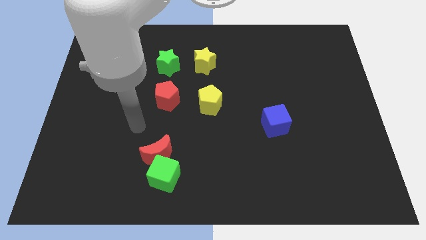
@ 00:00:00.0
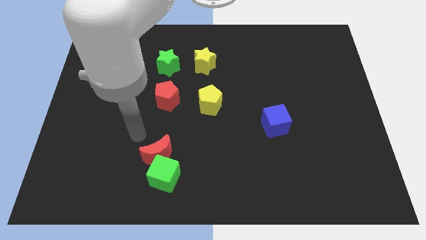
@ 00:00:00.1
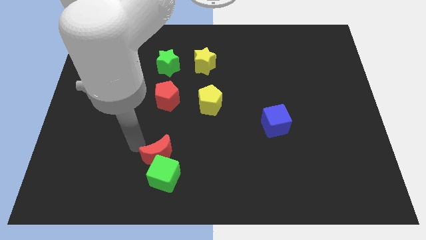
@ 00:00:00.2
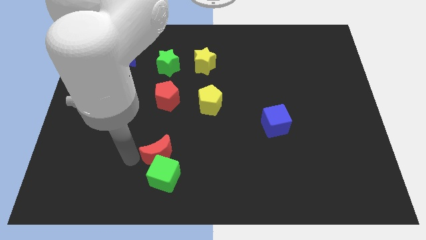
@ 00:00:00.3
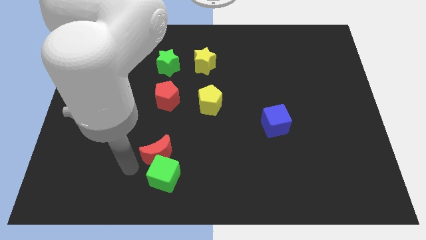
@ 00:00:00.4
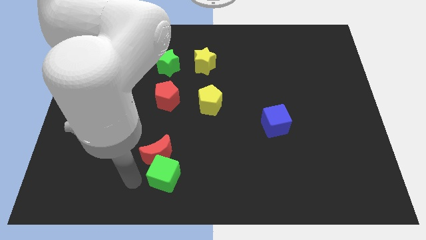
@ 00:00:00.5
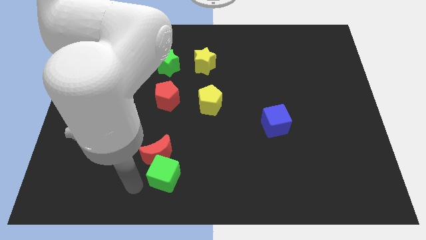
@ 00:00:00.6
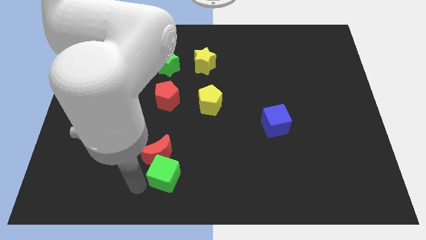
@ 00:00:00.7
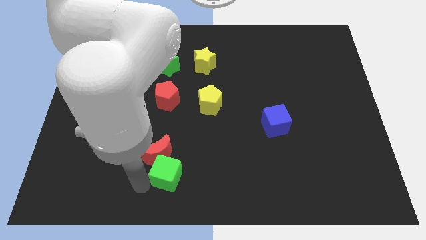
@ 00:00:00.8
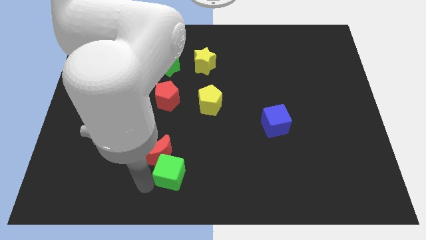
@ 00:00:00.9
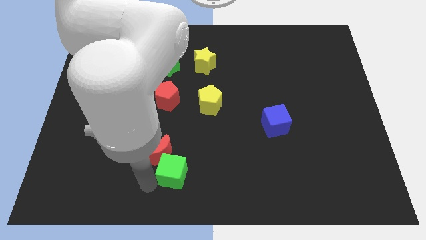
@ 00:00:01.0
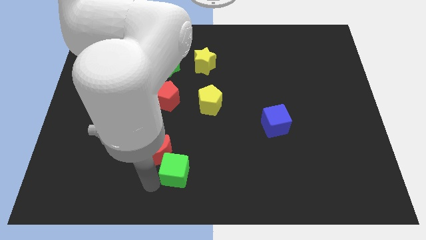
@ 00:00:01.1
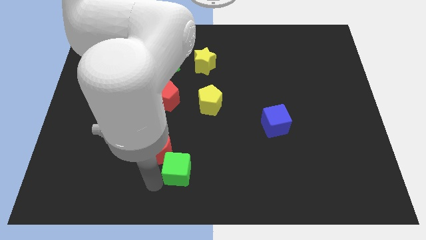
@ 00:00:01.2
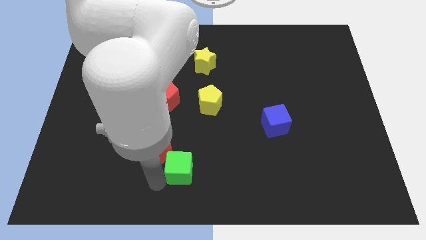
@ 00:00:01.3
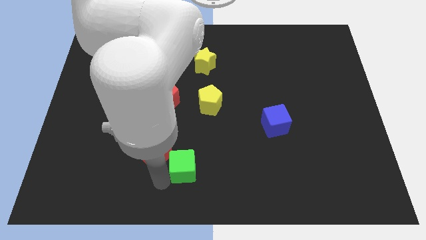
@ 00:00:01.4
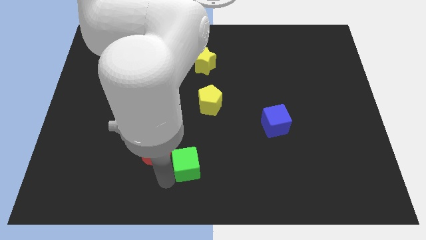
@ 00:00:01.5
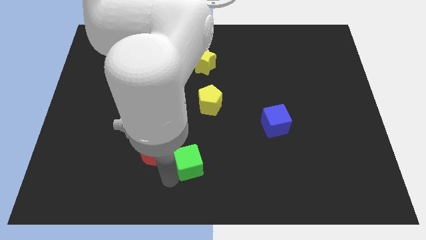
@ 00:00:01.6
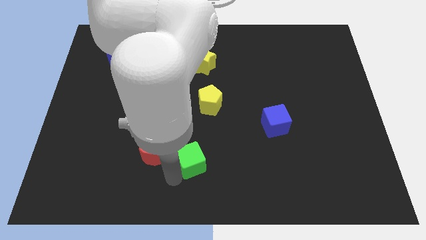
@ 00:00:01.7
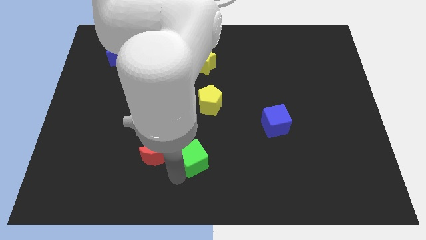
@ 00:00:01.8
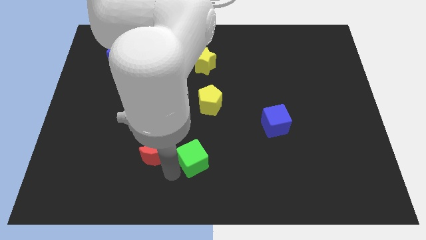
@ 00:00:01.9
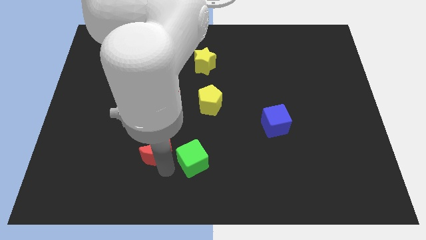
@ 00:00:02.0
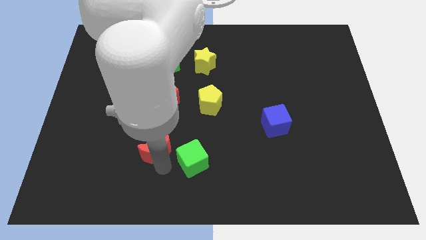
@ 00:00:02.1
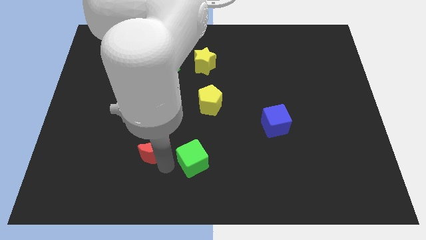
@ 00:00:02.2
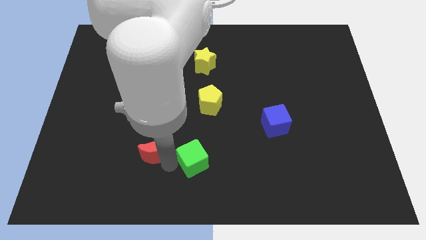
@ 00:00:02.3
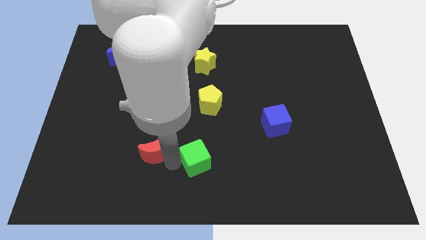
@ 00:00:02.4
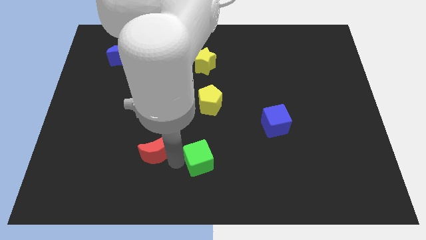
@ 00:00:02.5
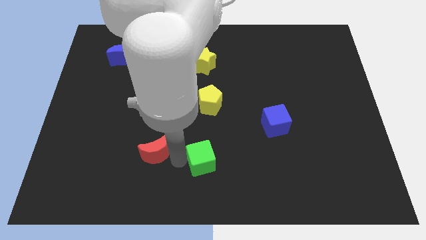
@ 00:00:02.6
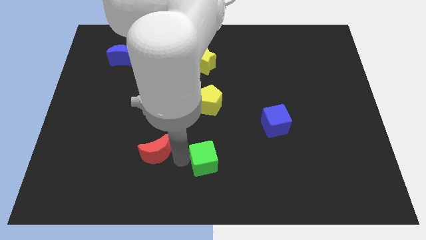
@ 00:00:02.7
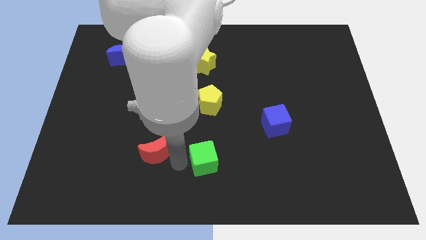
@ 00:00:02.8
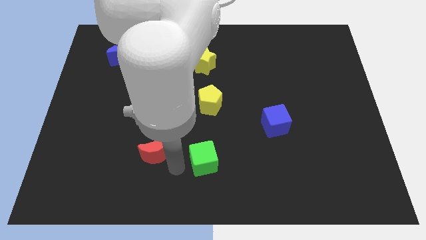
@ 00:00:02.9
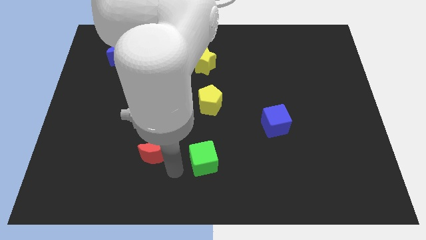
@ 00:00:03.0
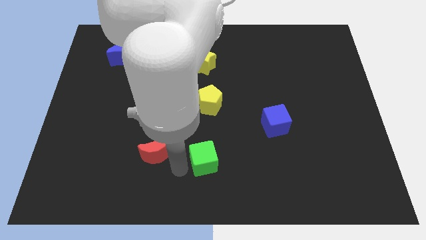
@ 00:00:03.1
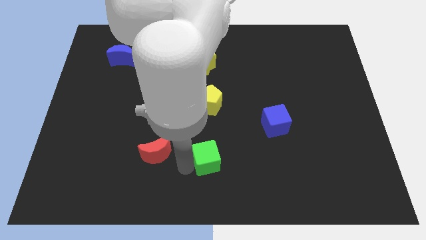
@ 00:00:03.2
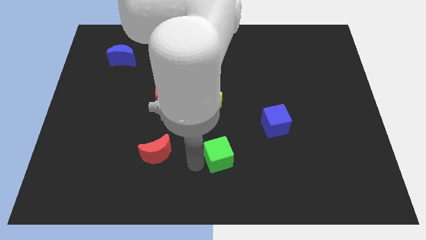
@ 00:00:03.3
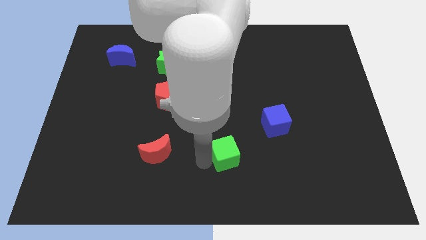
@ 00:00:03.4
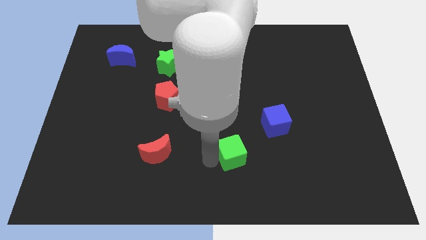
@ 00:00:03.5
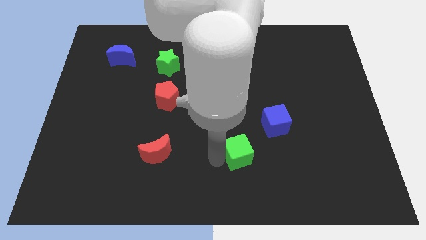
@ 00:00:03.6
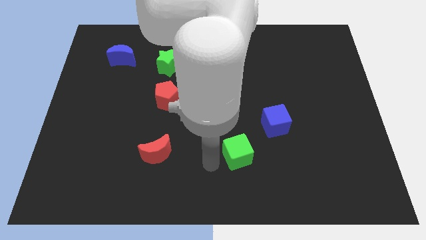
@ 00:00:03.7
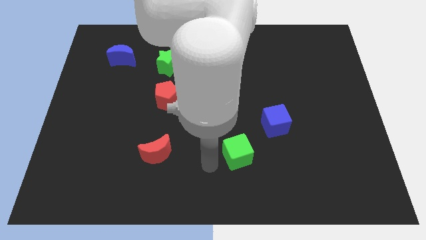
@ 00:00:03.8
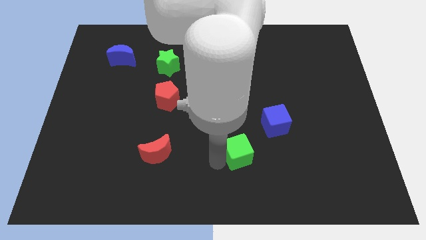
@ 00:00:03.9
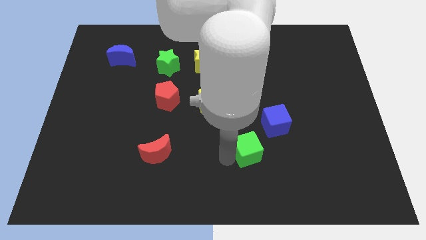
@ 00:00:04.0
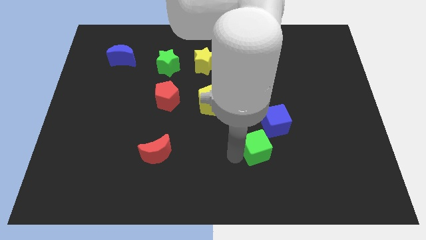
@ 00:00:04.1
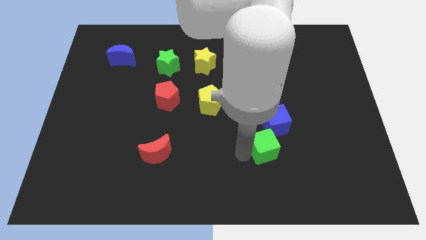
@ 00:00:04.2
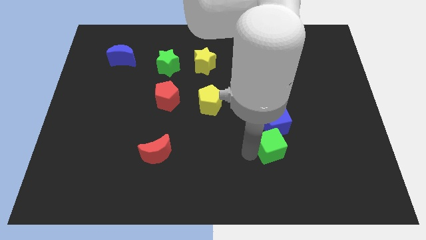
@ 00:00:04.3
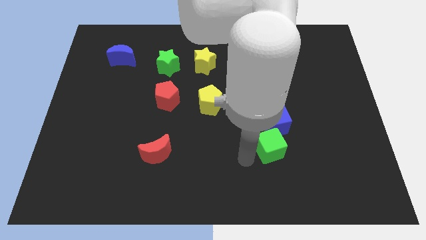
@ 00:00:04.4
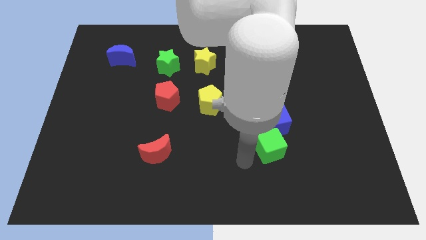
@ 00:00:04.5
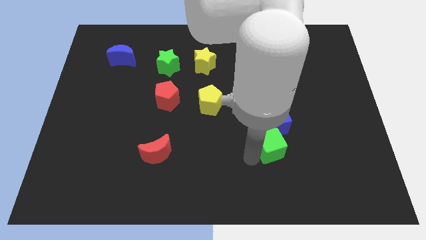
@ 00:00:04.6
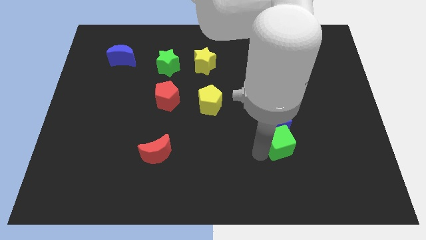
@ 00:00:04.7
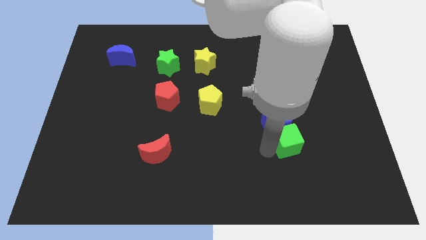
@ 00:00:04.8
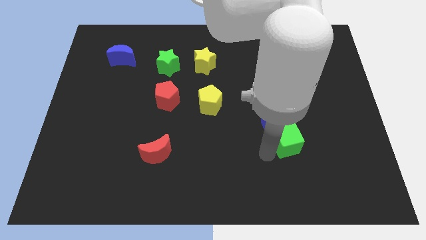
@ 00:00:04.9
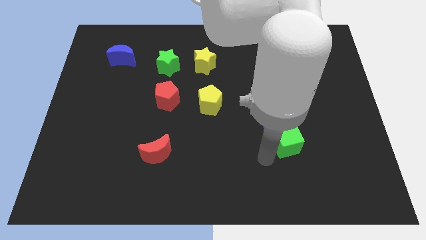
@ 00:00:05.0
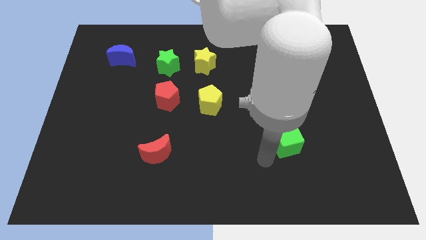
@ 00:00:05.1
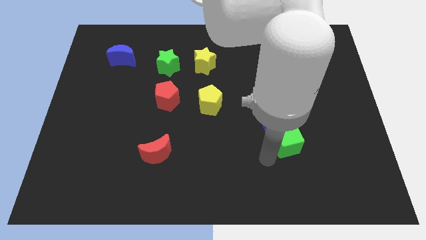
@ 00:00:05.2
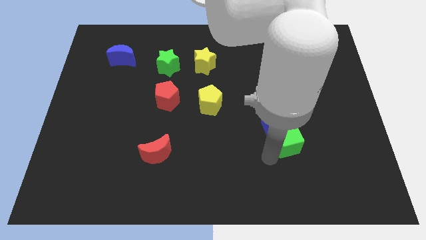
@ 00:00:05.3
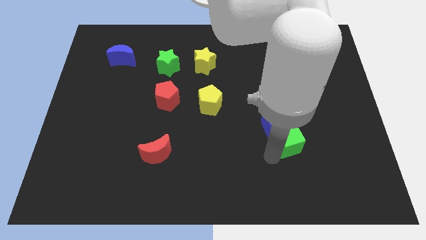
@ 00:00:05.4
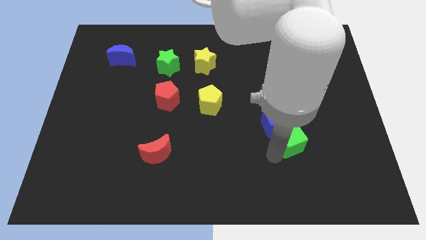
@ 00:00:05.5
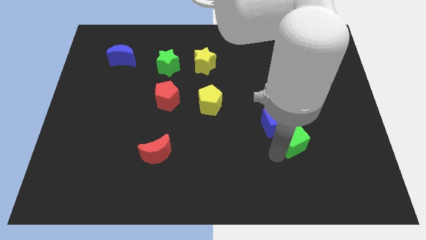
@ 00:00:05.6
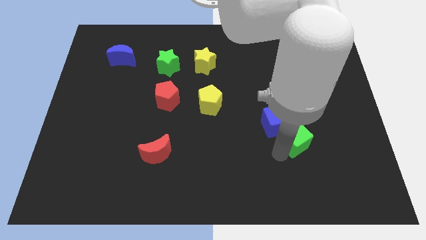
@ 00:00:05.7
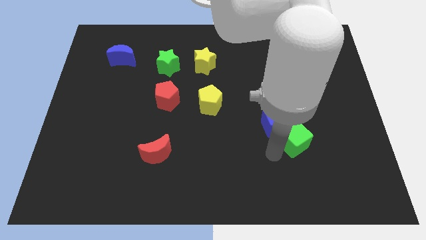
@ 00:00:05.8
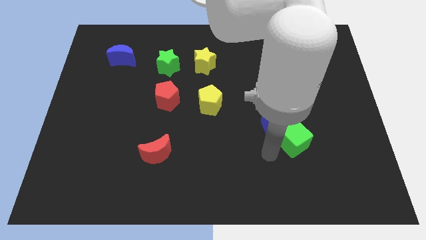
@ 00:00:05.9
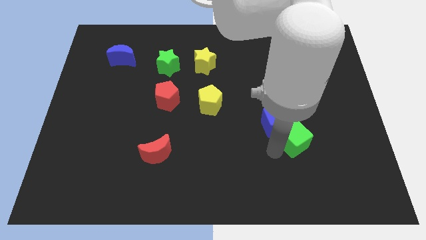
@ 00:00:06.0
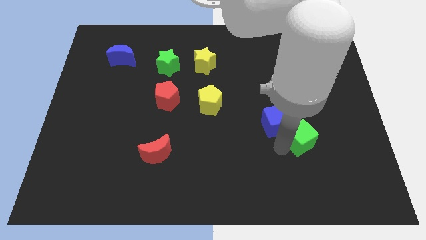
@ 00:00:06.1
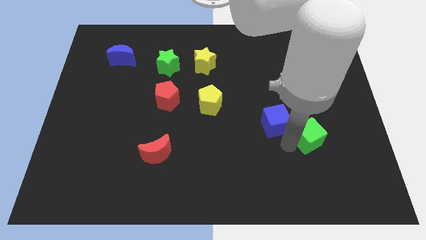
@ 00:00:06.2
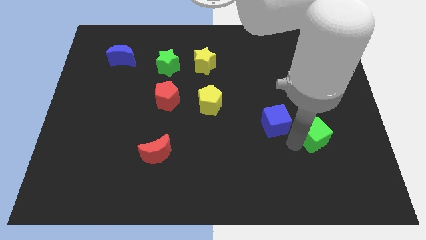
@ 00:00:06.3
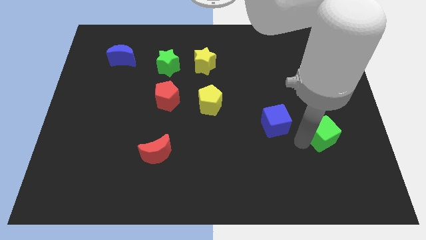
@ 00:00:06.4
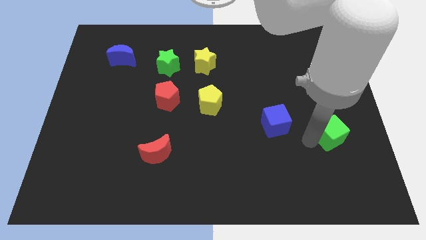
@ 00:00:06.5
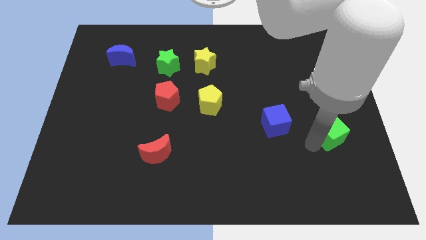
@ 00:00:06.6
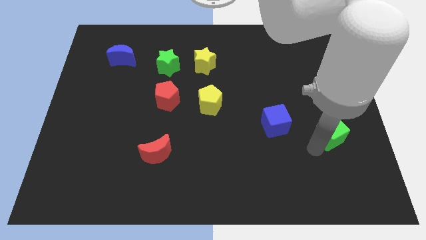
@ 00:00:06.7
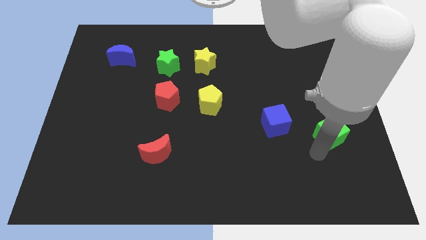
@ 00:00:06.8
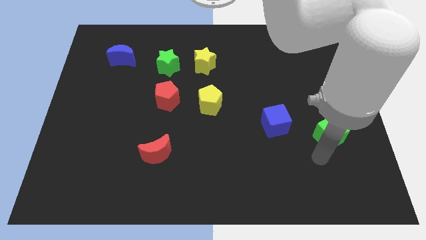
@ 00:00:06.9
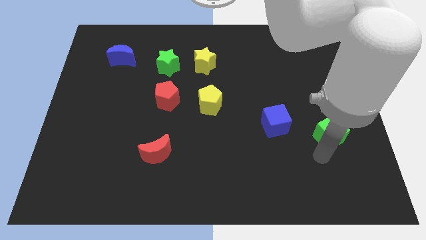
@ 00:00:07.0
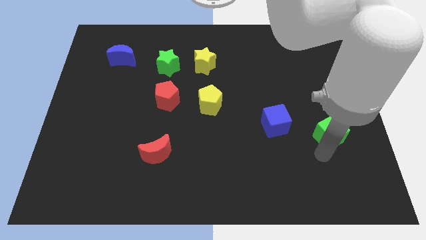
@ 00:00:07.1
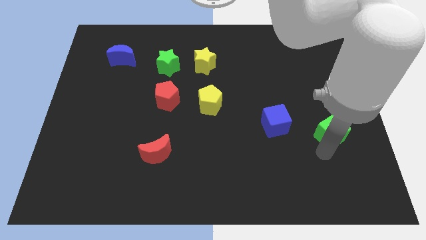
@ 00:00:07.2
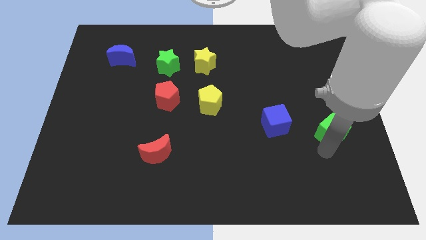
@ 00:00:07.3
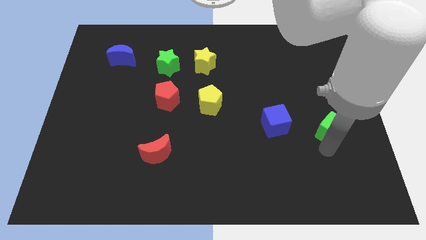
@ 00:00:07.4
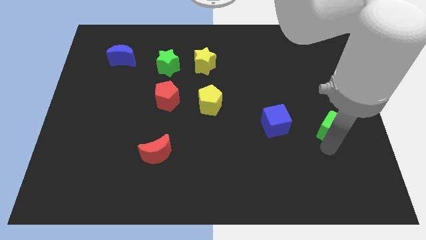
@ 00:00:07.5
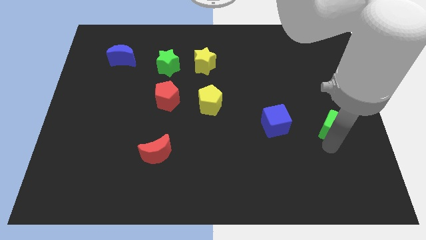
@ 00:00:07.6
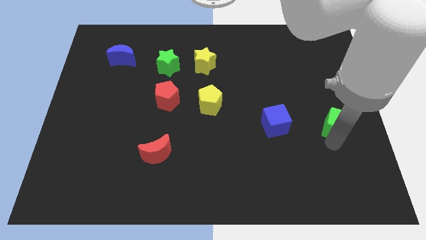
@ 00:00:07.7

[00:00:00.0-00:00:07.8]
slide the green cube to the center right
